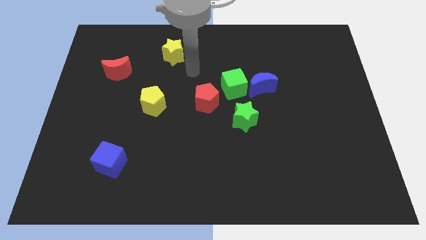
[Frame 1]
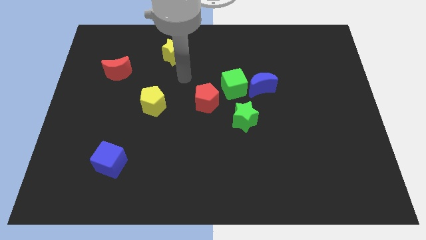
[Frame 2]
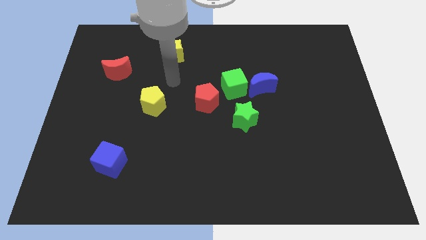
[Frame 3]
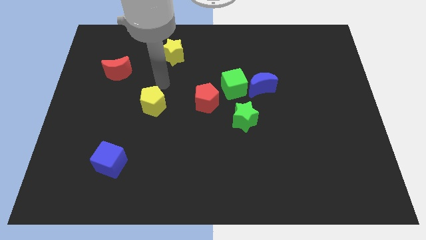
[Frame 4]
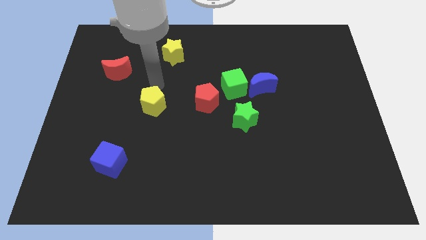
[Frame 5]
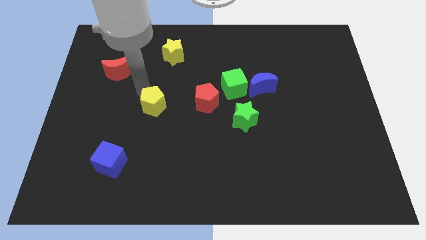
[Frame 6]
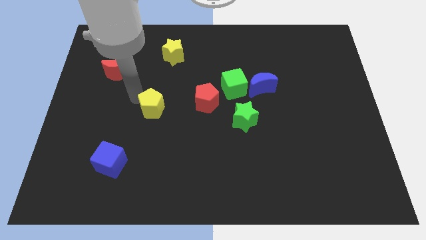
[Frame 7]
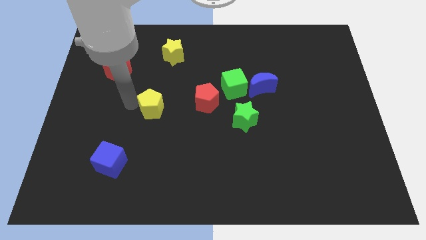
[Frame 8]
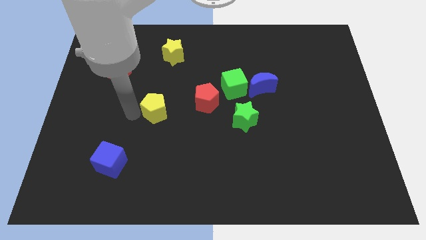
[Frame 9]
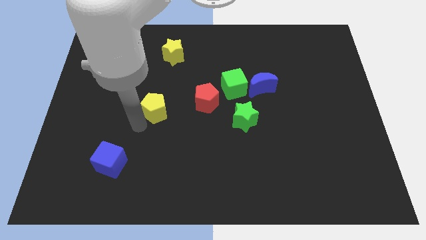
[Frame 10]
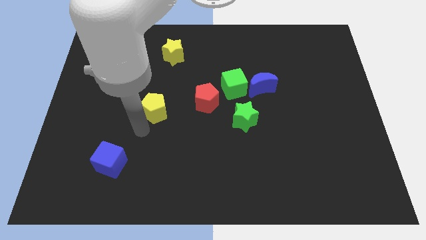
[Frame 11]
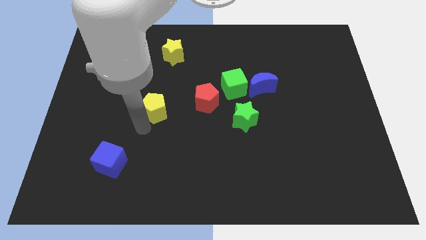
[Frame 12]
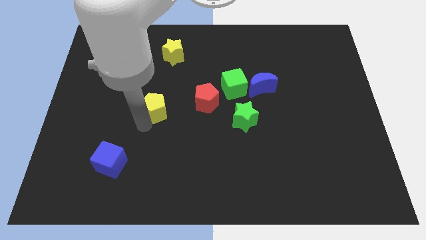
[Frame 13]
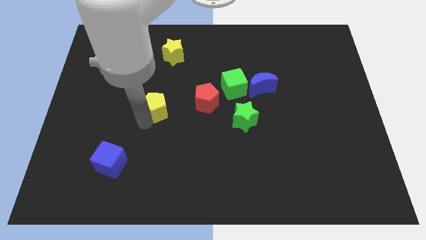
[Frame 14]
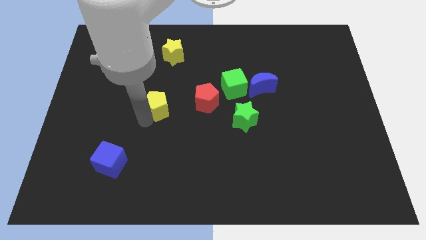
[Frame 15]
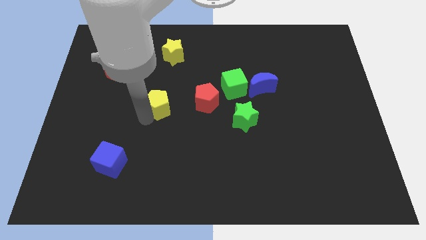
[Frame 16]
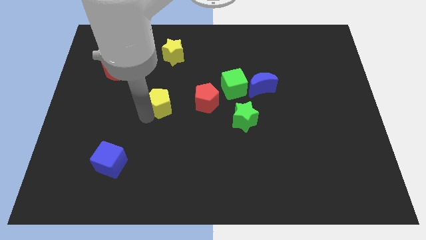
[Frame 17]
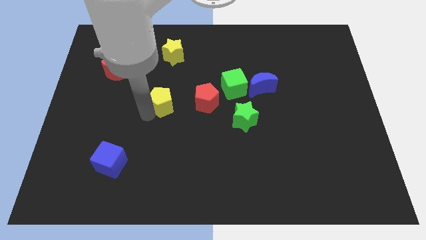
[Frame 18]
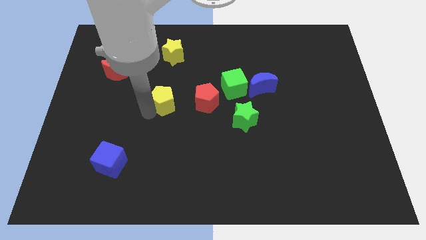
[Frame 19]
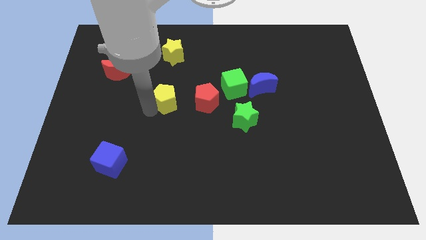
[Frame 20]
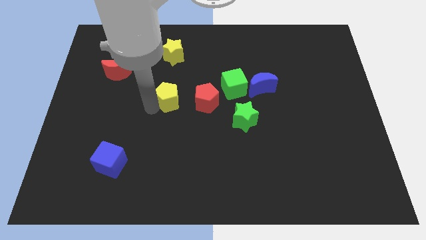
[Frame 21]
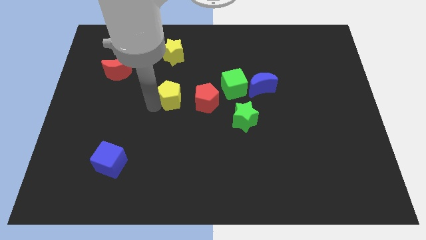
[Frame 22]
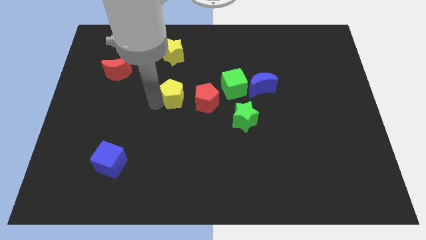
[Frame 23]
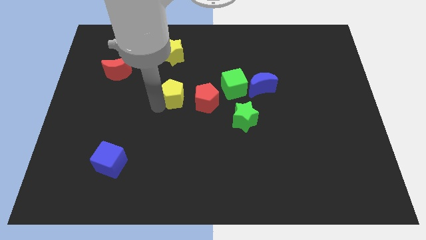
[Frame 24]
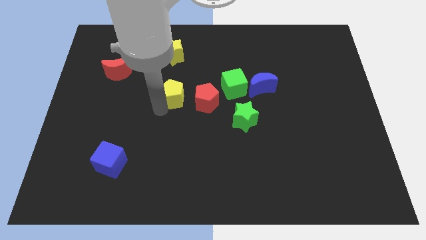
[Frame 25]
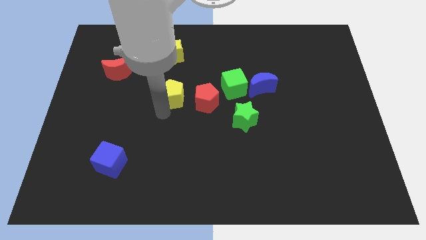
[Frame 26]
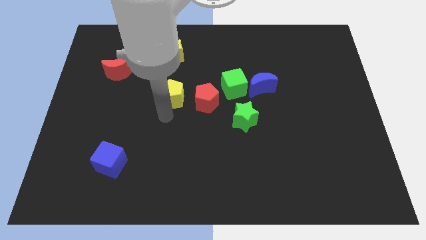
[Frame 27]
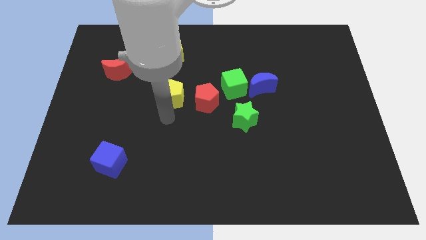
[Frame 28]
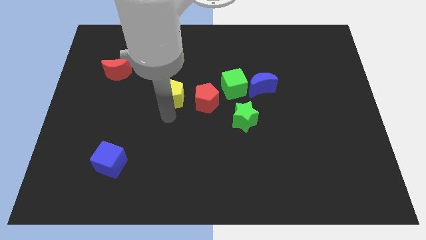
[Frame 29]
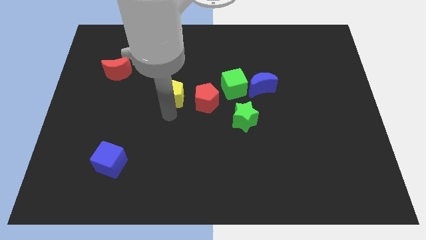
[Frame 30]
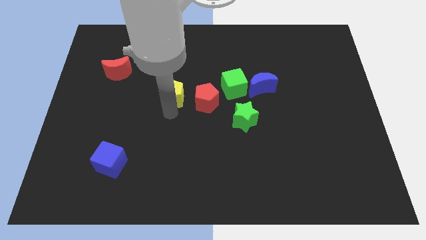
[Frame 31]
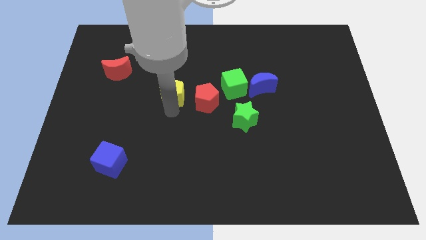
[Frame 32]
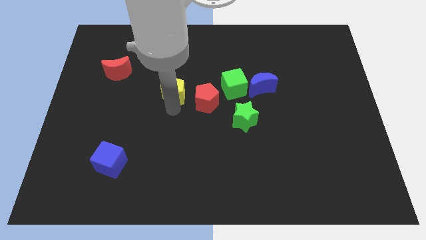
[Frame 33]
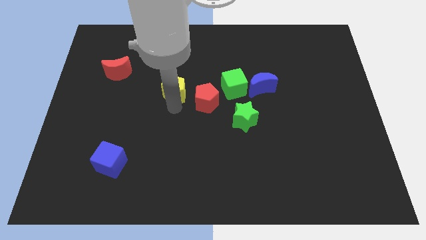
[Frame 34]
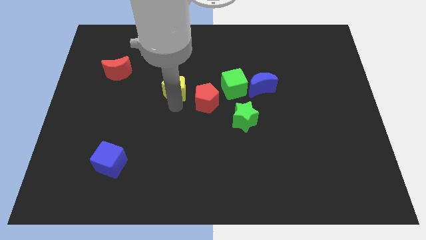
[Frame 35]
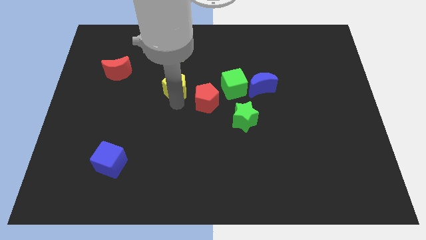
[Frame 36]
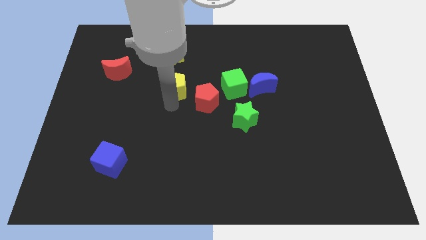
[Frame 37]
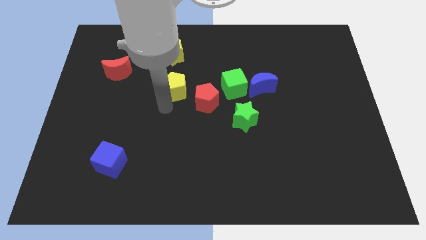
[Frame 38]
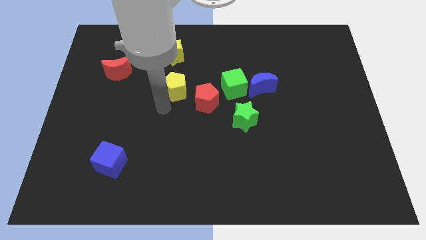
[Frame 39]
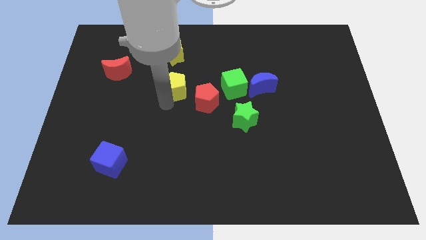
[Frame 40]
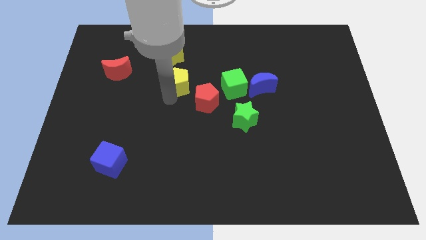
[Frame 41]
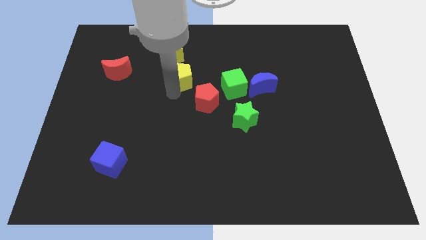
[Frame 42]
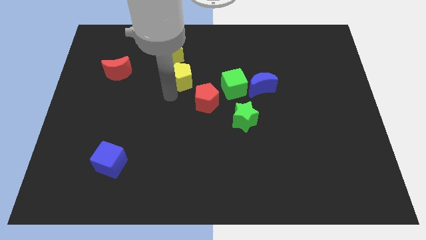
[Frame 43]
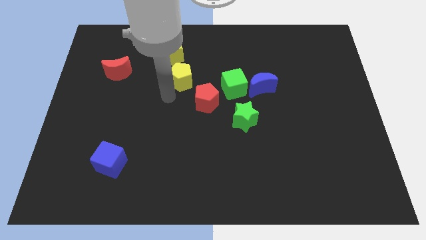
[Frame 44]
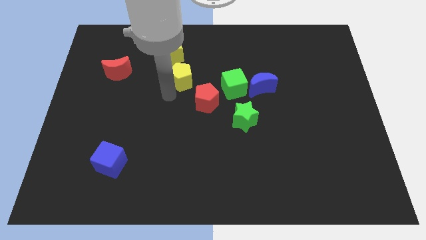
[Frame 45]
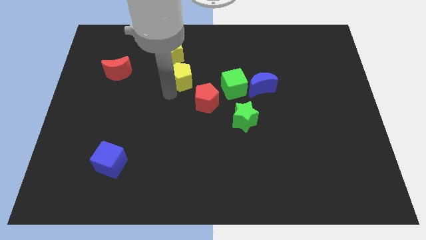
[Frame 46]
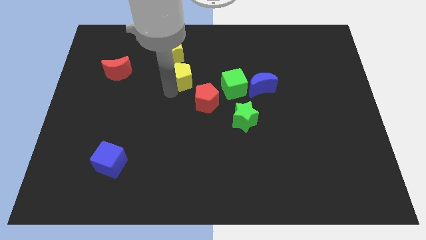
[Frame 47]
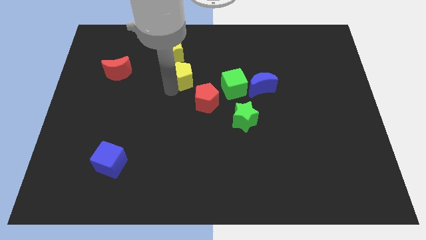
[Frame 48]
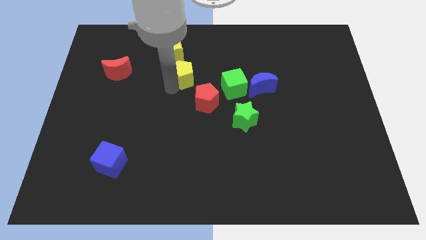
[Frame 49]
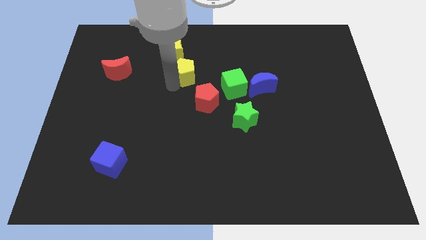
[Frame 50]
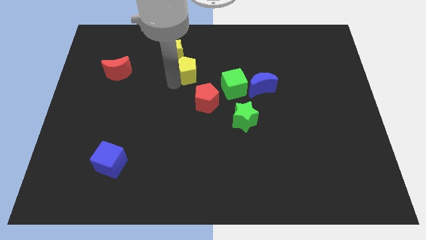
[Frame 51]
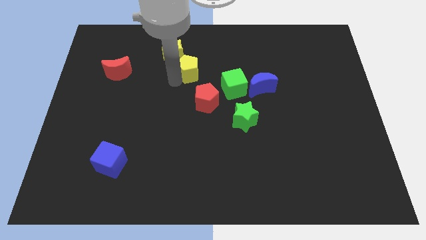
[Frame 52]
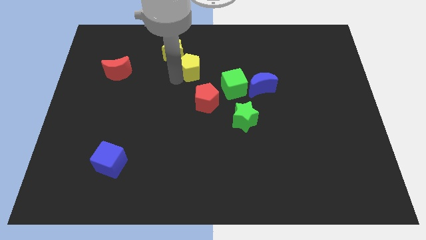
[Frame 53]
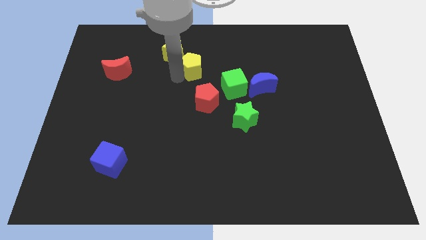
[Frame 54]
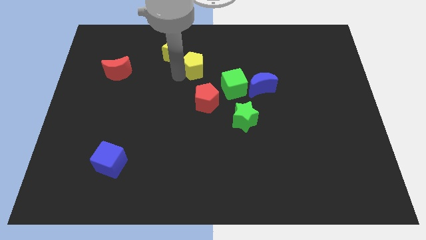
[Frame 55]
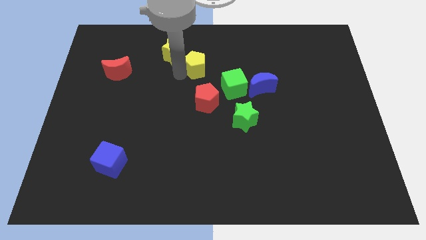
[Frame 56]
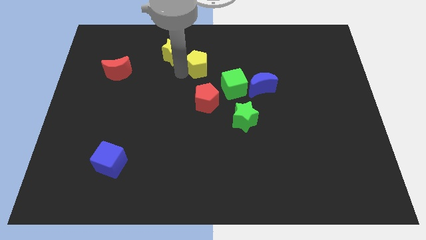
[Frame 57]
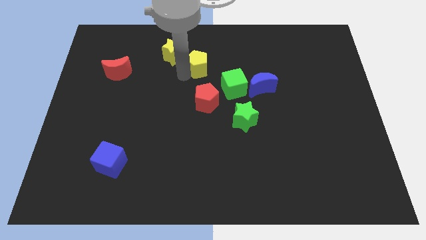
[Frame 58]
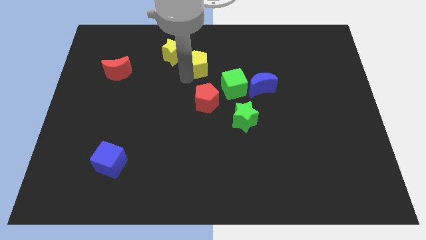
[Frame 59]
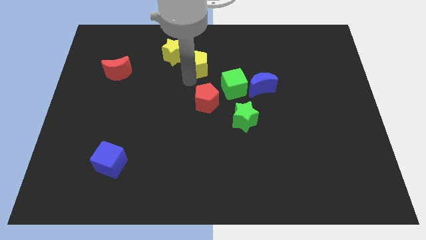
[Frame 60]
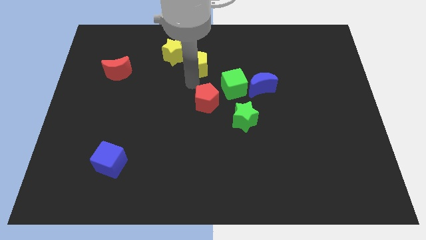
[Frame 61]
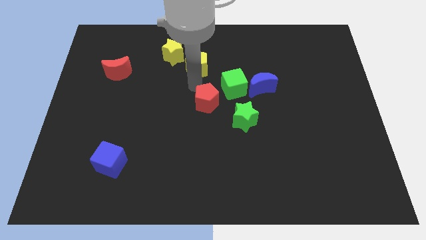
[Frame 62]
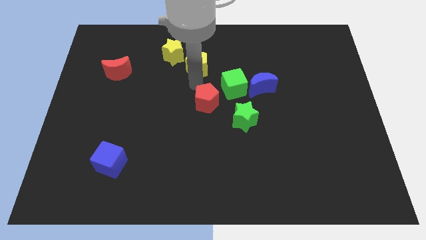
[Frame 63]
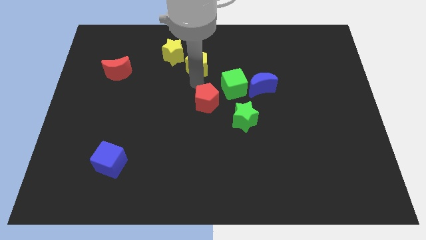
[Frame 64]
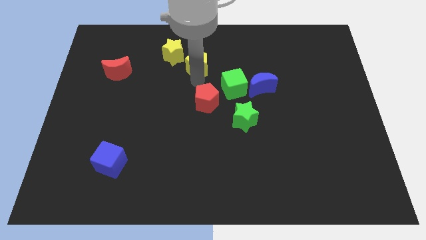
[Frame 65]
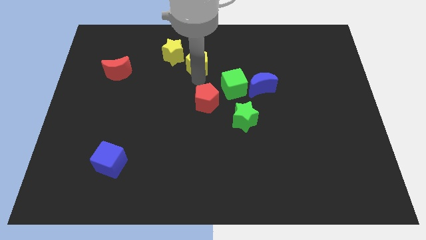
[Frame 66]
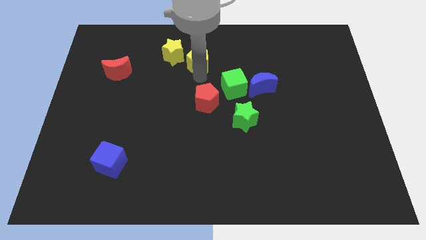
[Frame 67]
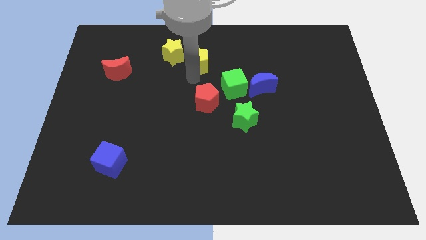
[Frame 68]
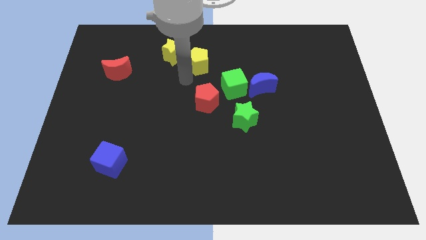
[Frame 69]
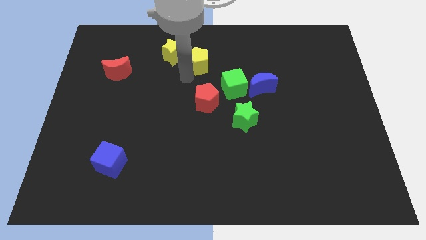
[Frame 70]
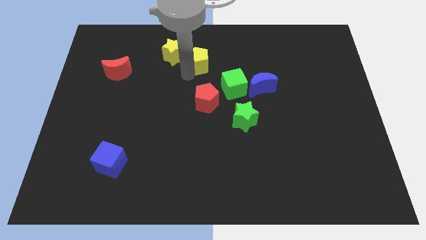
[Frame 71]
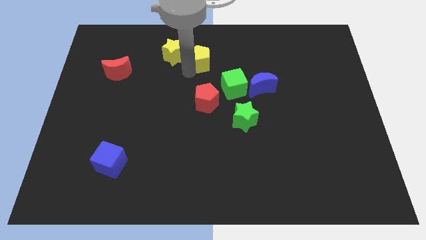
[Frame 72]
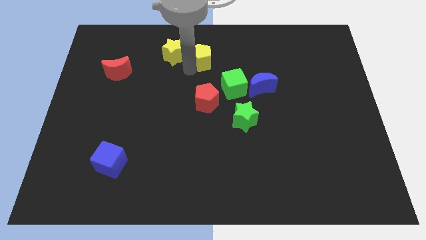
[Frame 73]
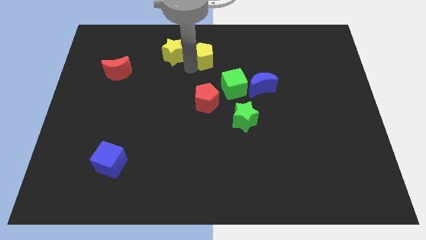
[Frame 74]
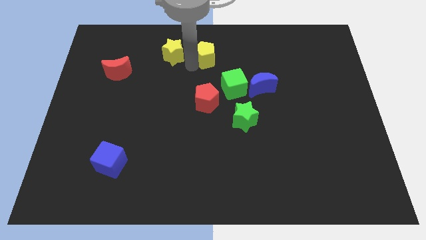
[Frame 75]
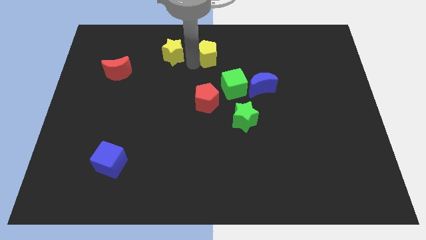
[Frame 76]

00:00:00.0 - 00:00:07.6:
move the yellow pentagon to the top side
